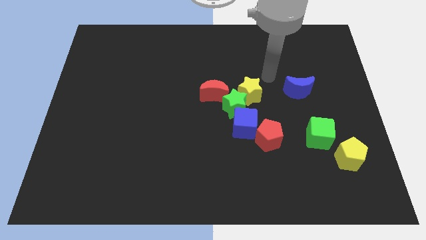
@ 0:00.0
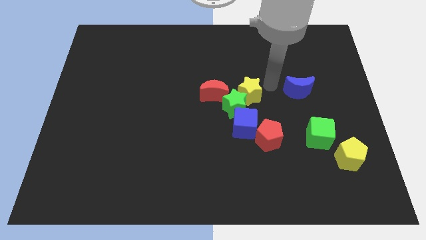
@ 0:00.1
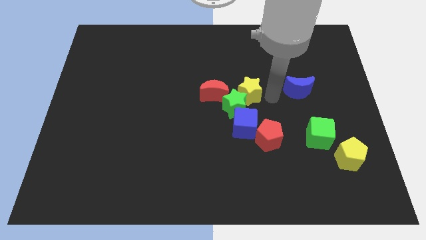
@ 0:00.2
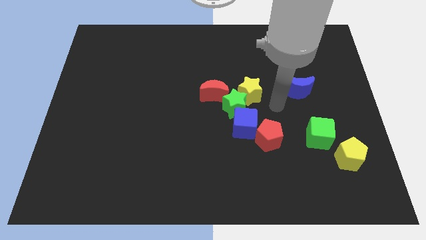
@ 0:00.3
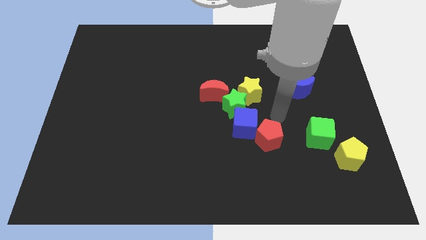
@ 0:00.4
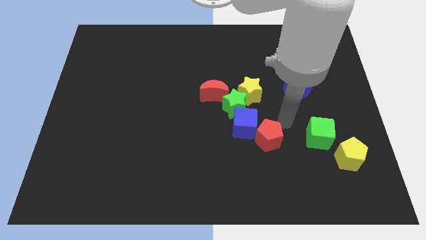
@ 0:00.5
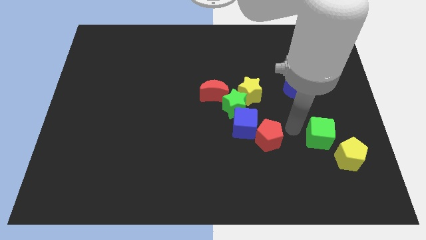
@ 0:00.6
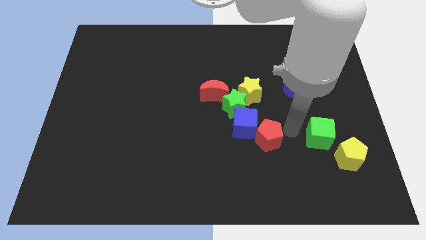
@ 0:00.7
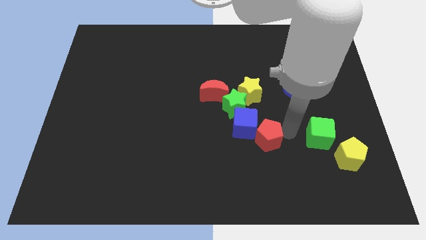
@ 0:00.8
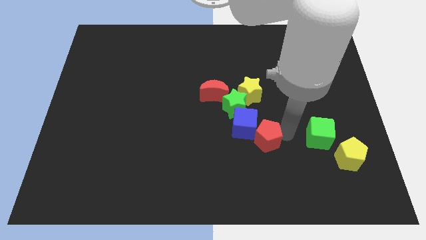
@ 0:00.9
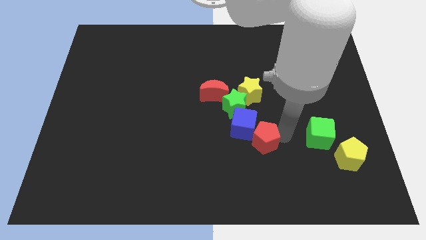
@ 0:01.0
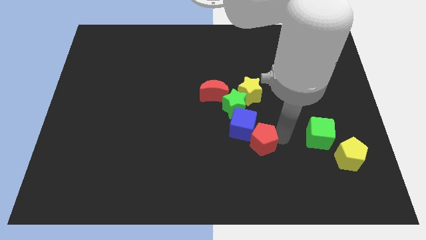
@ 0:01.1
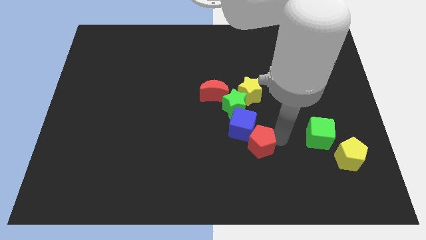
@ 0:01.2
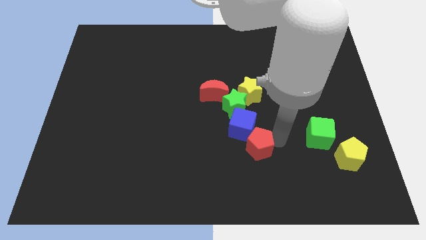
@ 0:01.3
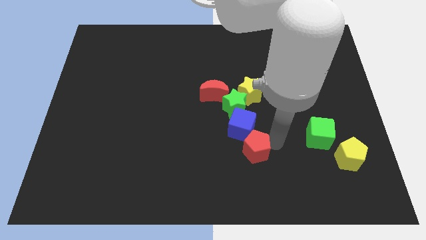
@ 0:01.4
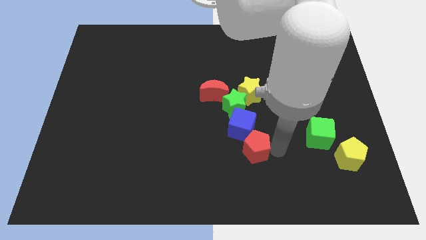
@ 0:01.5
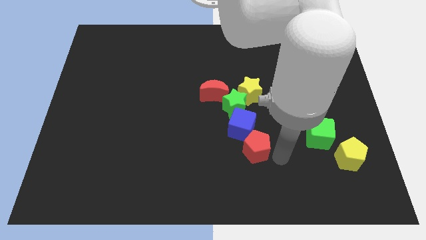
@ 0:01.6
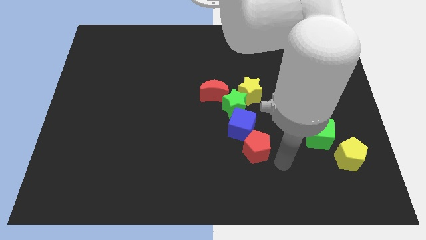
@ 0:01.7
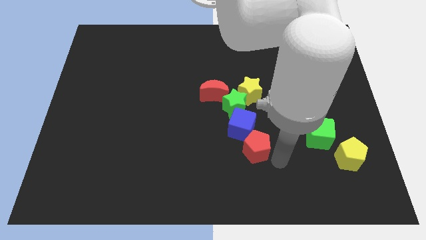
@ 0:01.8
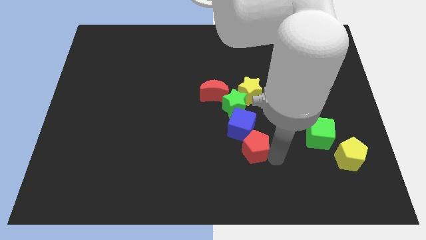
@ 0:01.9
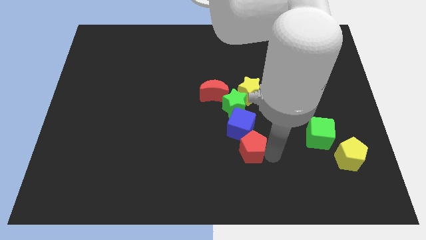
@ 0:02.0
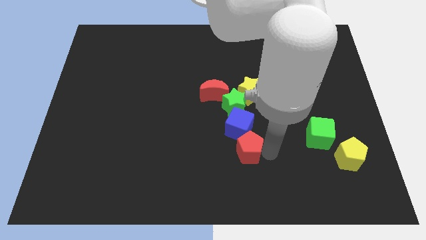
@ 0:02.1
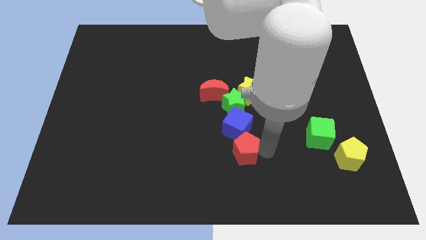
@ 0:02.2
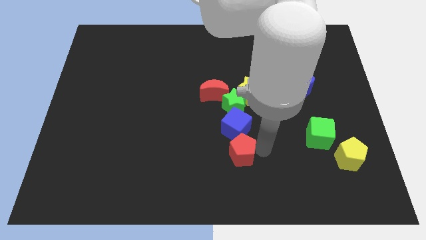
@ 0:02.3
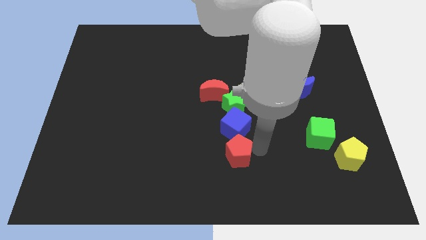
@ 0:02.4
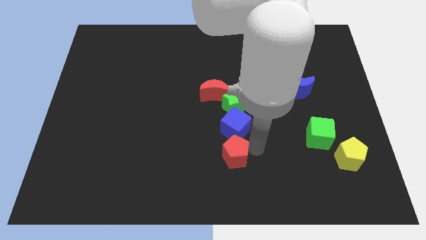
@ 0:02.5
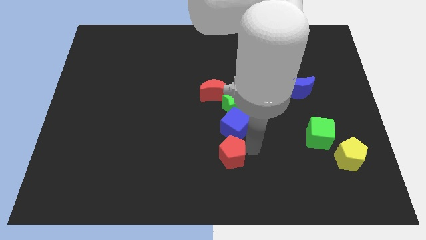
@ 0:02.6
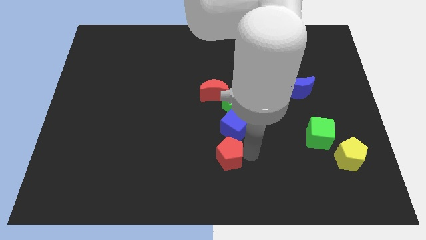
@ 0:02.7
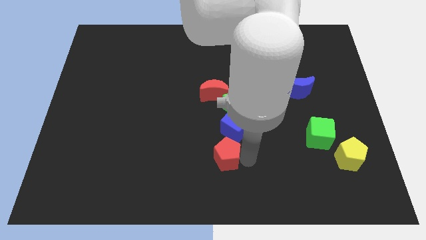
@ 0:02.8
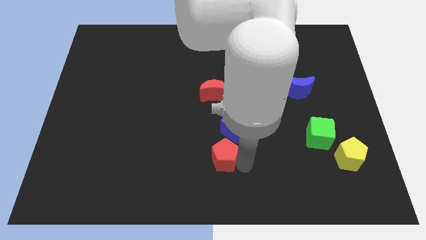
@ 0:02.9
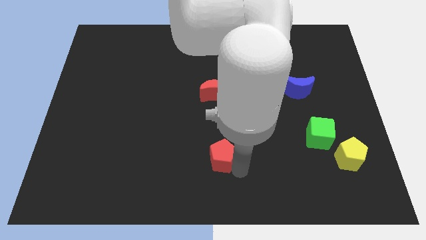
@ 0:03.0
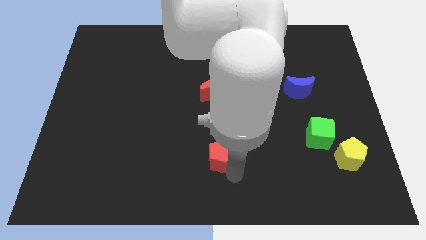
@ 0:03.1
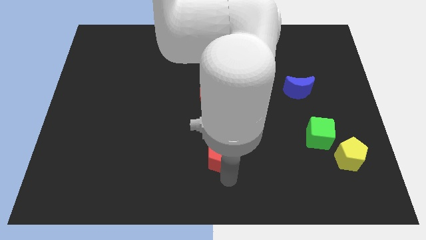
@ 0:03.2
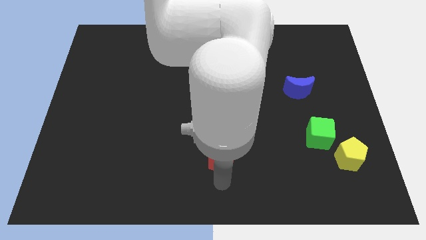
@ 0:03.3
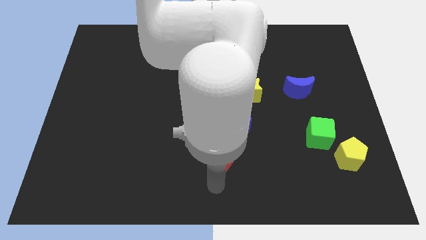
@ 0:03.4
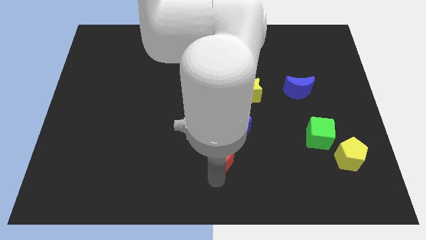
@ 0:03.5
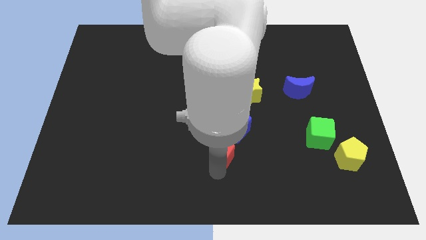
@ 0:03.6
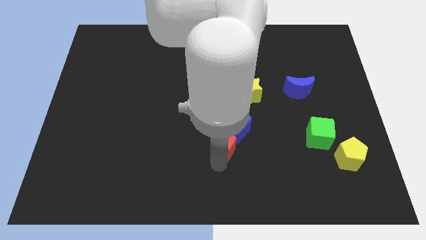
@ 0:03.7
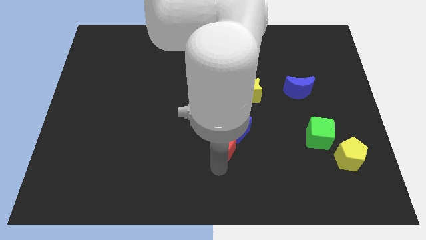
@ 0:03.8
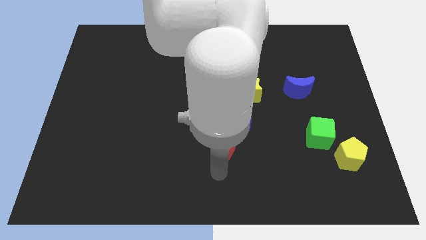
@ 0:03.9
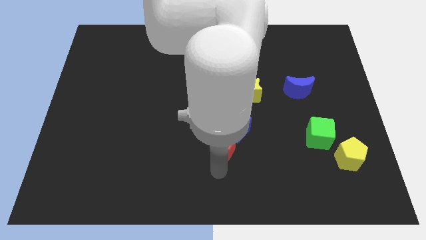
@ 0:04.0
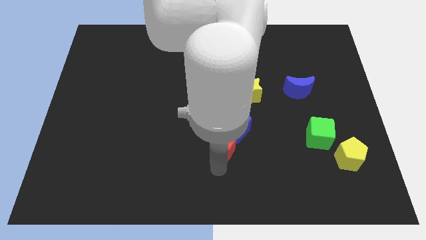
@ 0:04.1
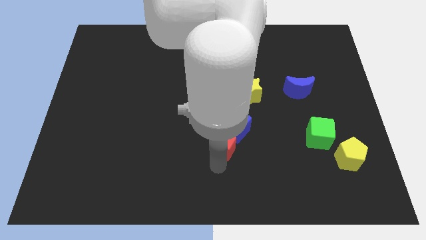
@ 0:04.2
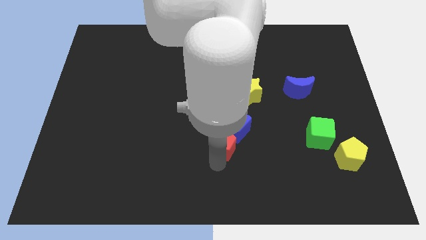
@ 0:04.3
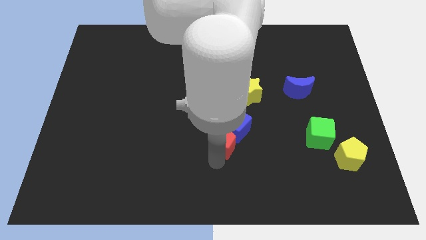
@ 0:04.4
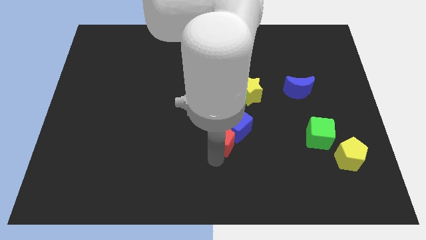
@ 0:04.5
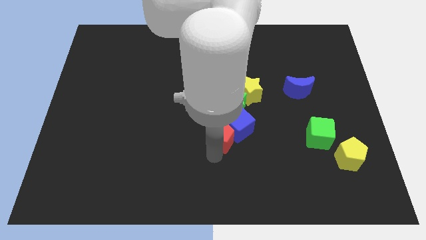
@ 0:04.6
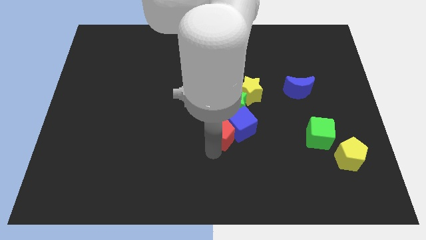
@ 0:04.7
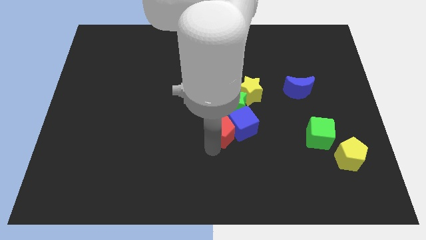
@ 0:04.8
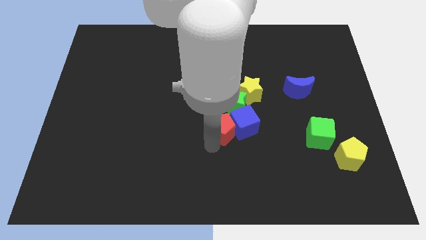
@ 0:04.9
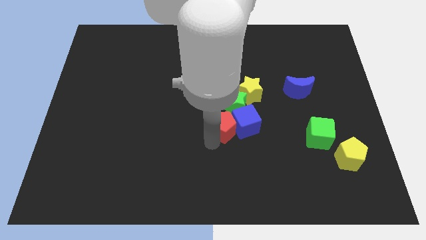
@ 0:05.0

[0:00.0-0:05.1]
put the red pentagon diagonally down and to the left of the yellow star

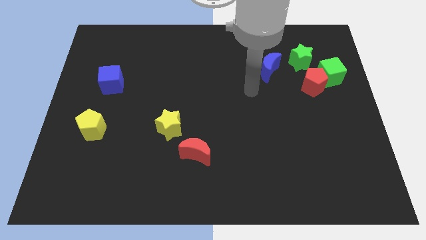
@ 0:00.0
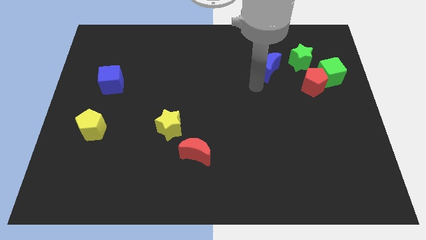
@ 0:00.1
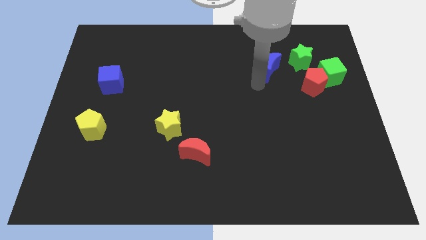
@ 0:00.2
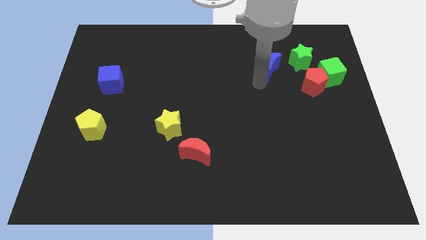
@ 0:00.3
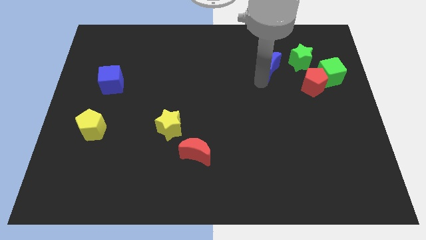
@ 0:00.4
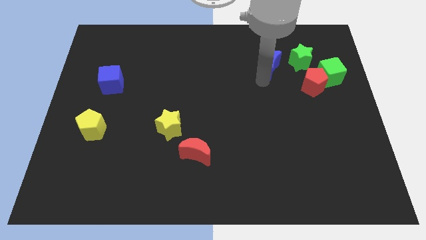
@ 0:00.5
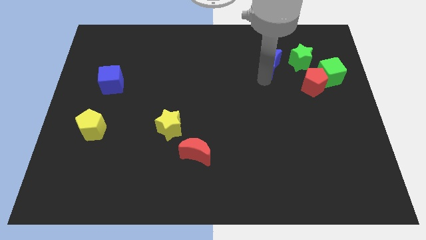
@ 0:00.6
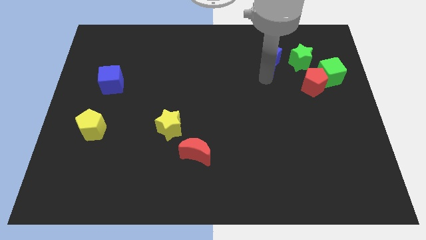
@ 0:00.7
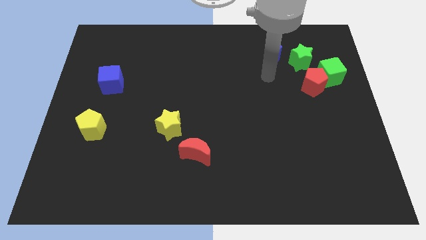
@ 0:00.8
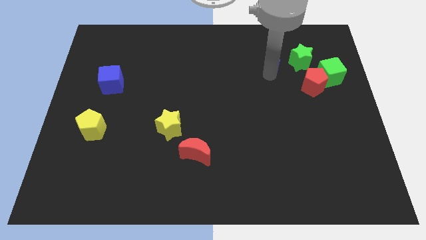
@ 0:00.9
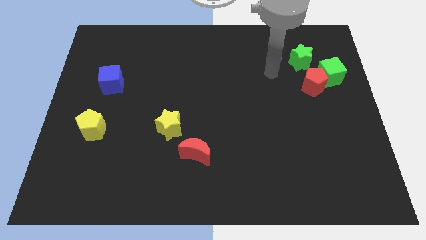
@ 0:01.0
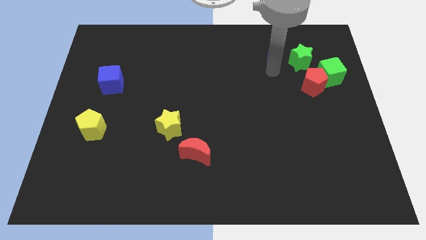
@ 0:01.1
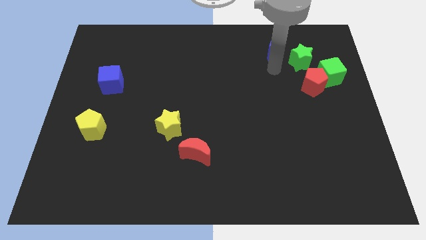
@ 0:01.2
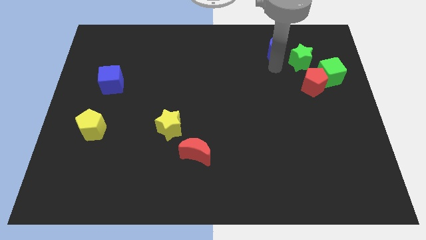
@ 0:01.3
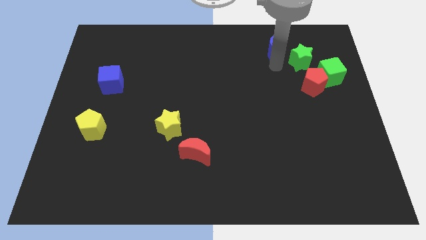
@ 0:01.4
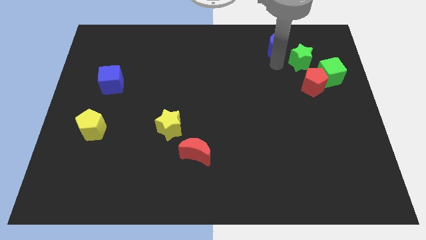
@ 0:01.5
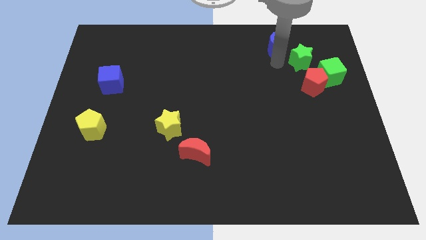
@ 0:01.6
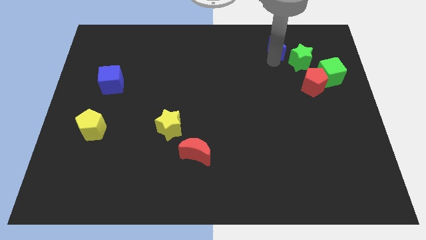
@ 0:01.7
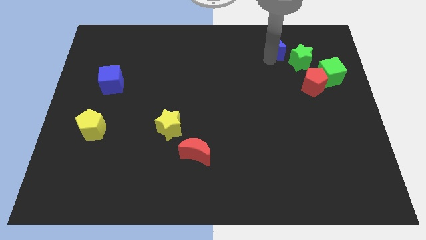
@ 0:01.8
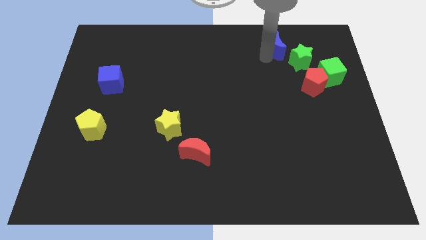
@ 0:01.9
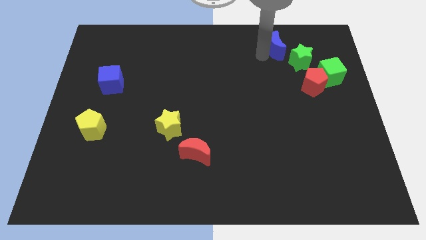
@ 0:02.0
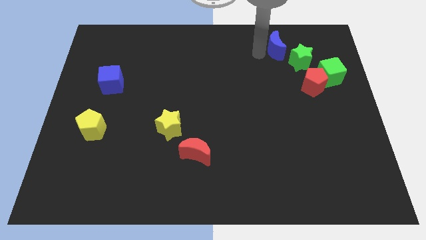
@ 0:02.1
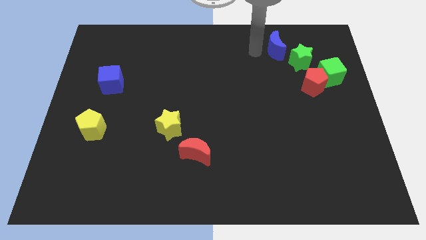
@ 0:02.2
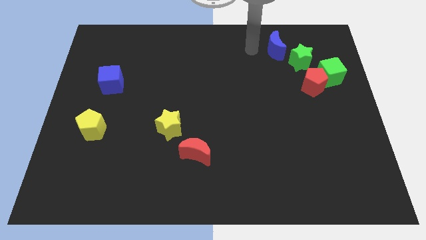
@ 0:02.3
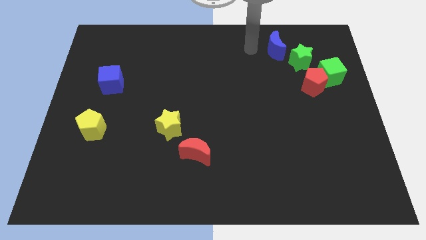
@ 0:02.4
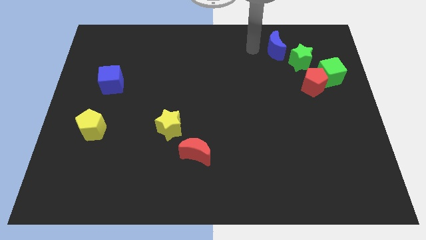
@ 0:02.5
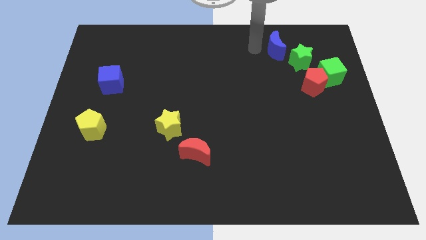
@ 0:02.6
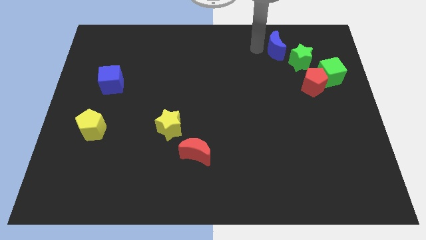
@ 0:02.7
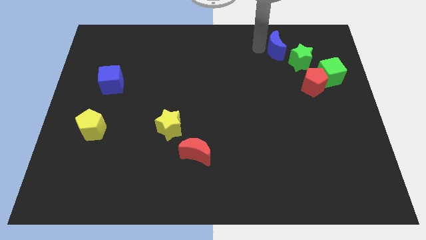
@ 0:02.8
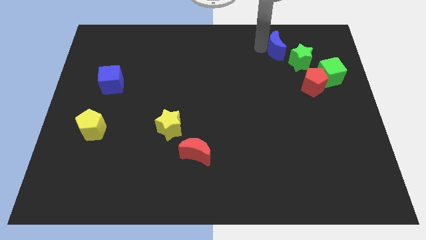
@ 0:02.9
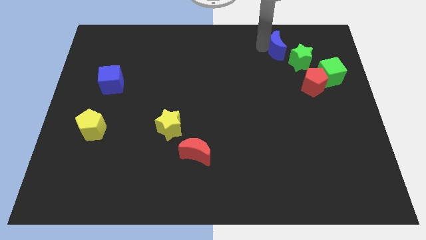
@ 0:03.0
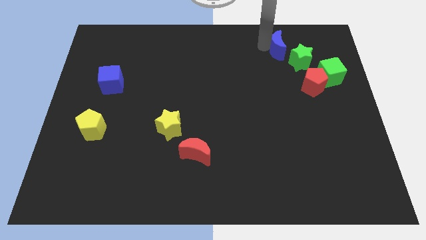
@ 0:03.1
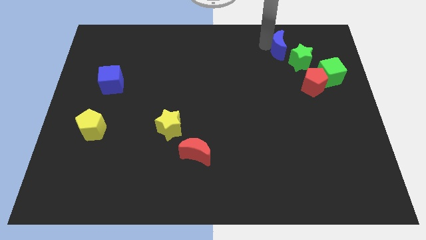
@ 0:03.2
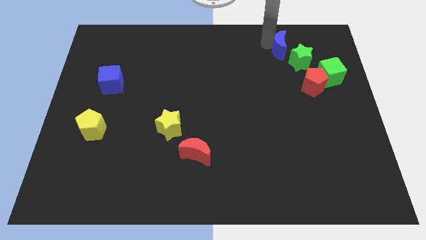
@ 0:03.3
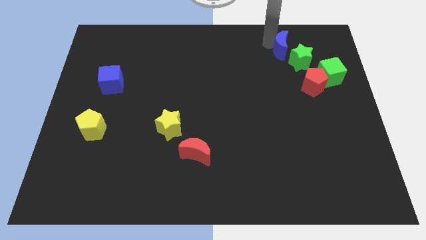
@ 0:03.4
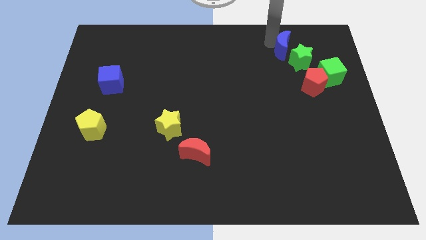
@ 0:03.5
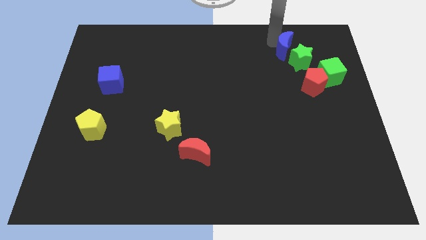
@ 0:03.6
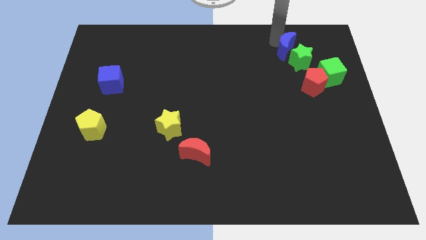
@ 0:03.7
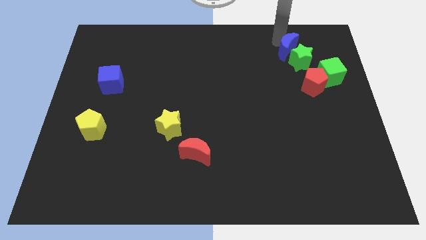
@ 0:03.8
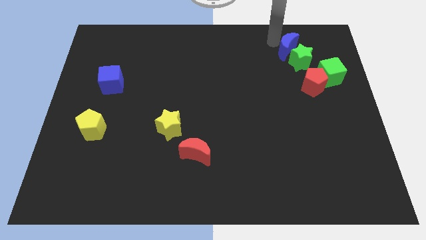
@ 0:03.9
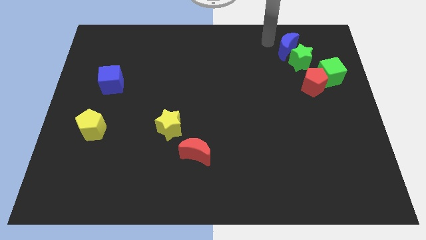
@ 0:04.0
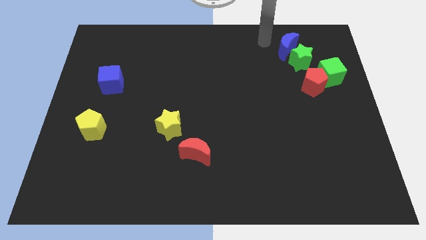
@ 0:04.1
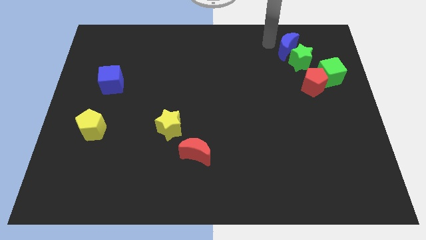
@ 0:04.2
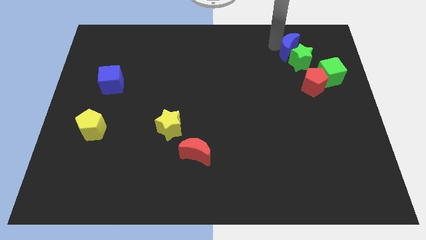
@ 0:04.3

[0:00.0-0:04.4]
move the blue moon to the top side of the red pentagon
